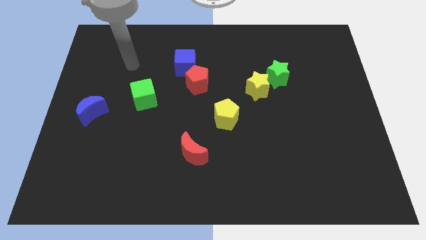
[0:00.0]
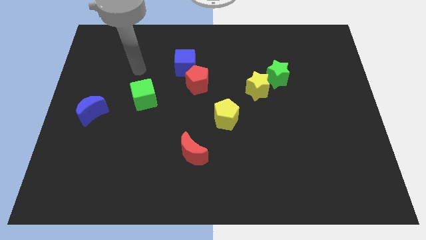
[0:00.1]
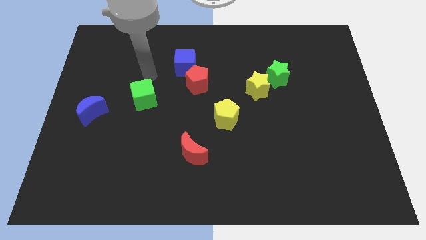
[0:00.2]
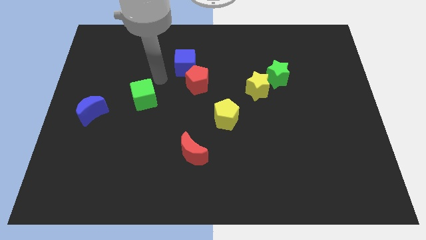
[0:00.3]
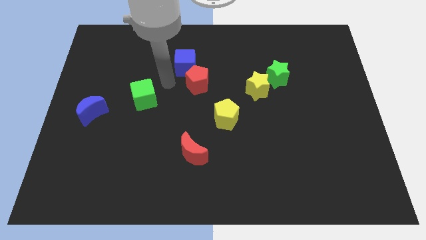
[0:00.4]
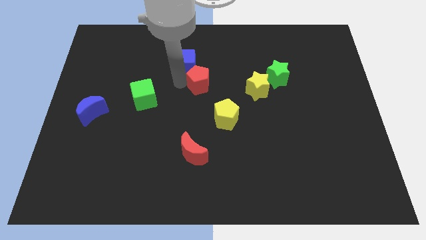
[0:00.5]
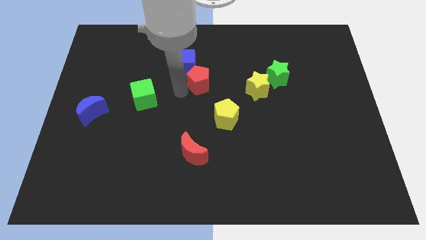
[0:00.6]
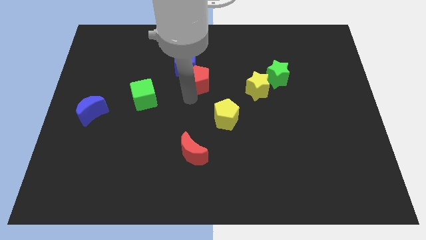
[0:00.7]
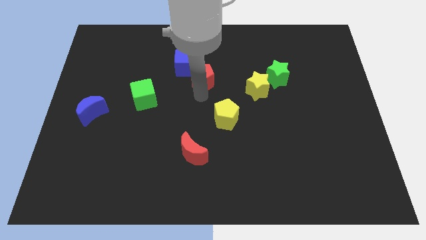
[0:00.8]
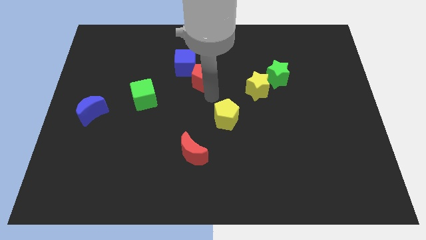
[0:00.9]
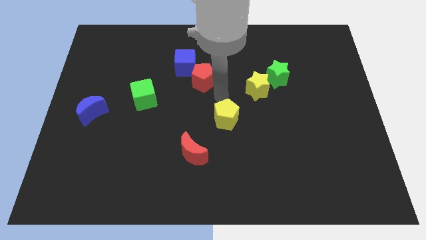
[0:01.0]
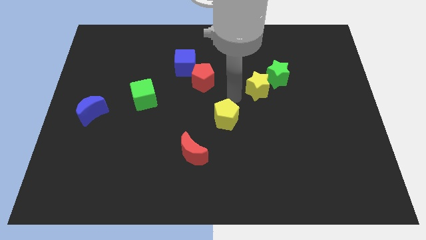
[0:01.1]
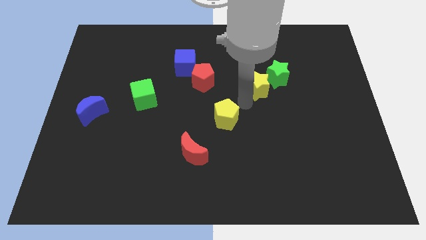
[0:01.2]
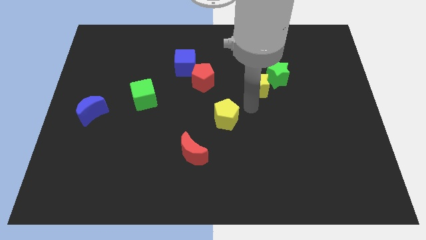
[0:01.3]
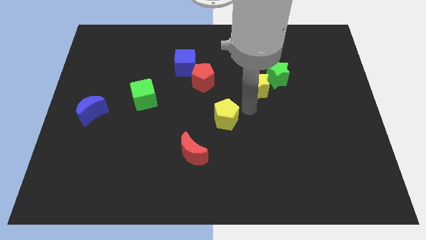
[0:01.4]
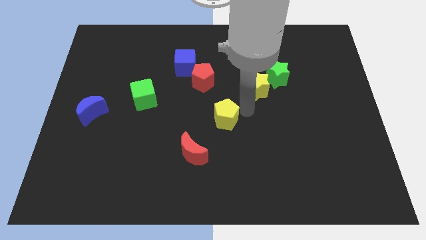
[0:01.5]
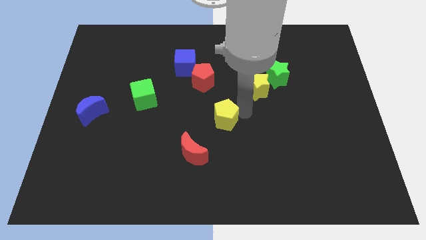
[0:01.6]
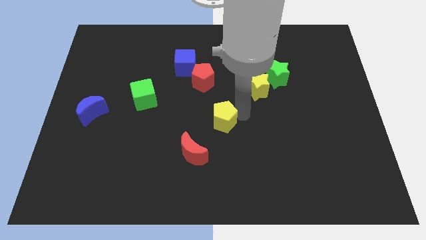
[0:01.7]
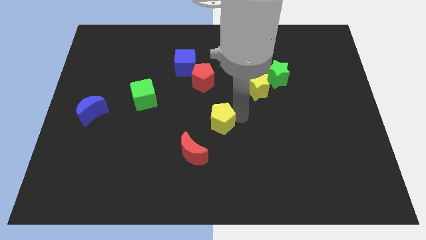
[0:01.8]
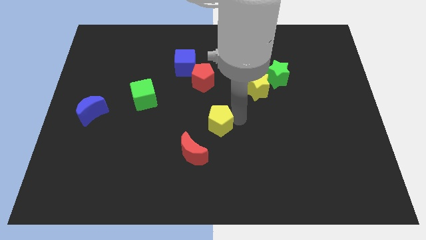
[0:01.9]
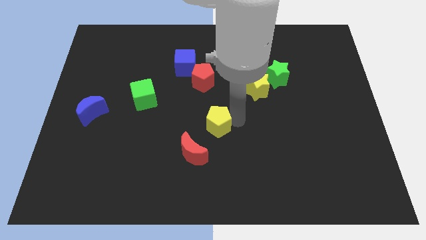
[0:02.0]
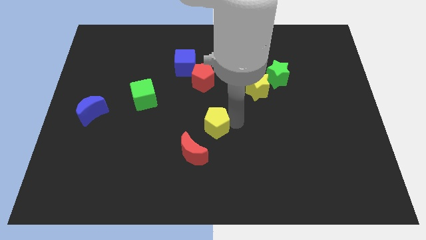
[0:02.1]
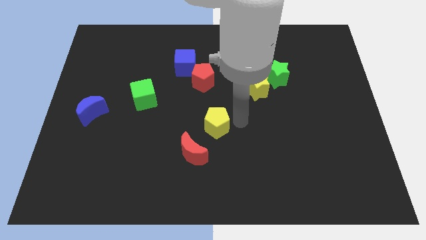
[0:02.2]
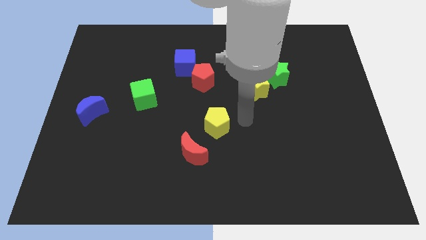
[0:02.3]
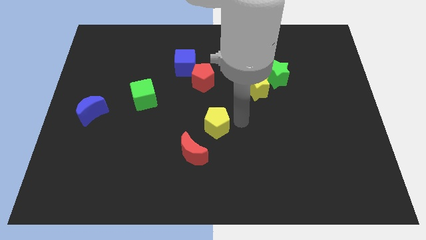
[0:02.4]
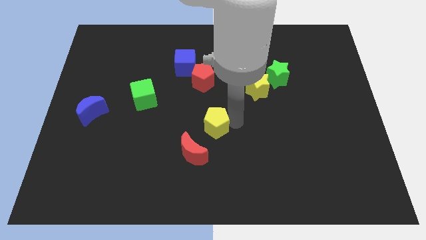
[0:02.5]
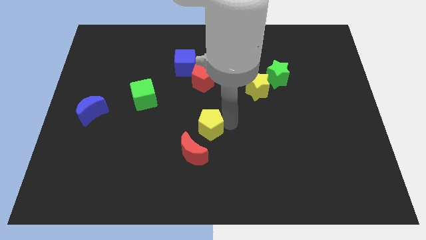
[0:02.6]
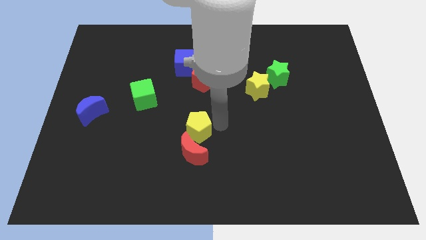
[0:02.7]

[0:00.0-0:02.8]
slightly move the yellow pentagon downwards and then left

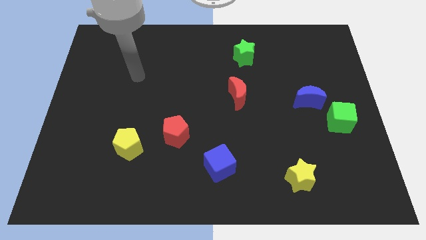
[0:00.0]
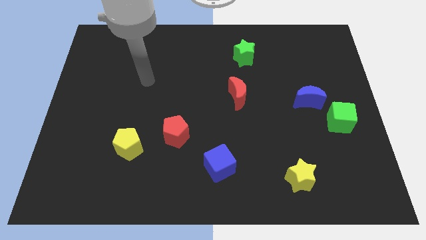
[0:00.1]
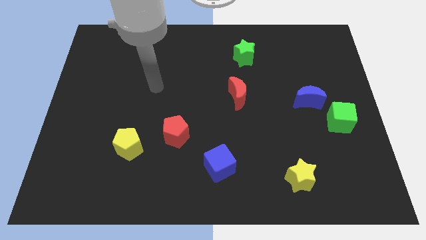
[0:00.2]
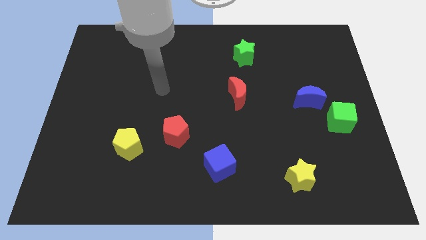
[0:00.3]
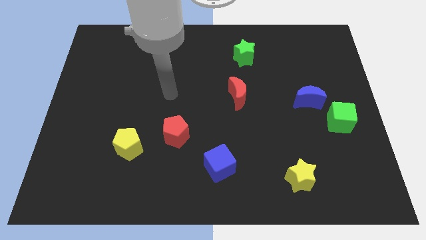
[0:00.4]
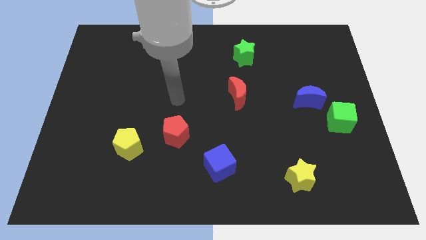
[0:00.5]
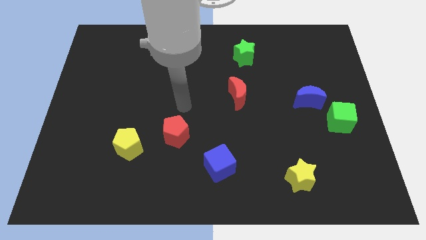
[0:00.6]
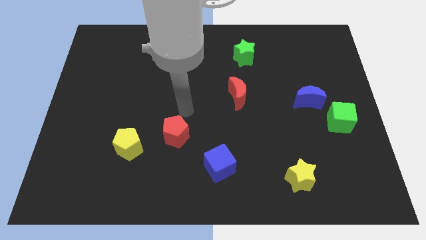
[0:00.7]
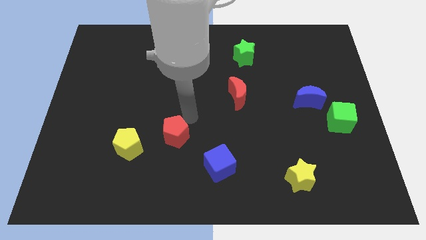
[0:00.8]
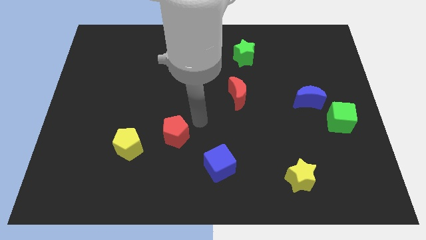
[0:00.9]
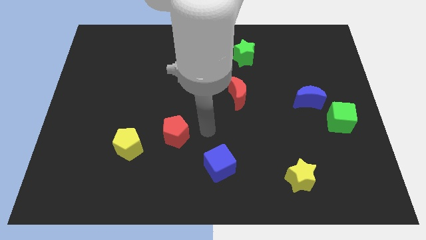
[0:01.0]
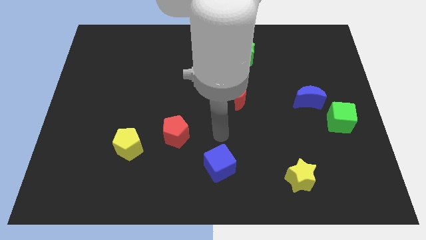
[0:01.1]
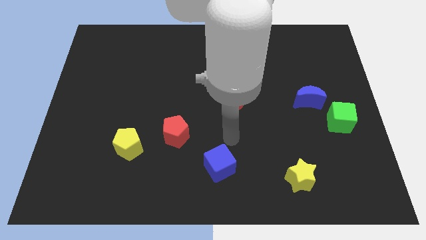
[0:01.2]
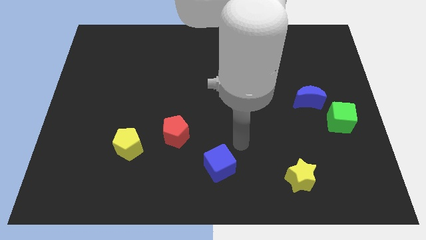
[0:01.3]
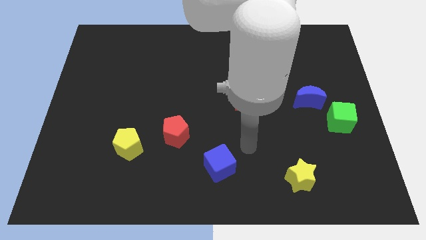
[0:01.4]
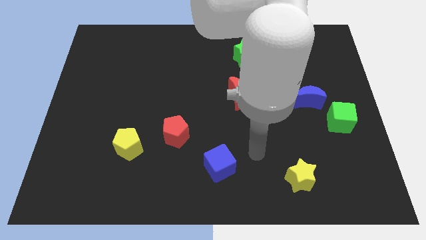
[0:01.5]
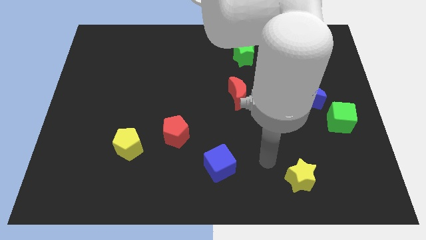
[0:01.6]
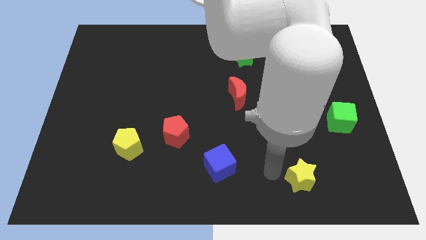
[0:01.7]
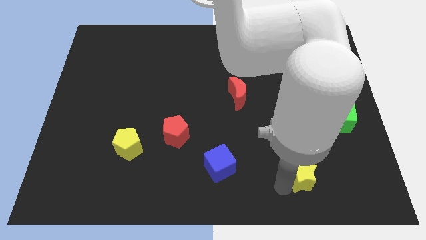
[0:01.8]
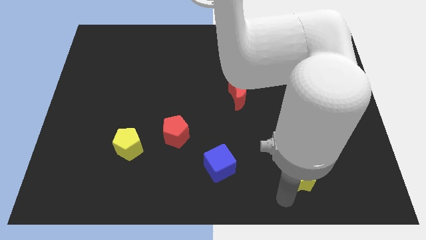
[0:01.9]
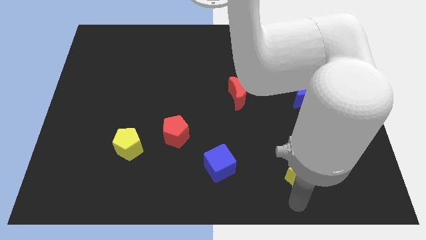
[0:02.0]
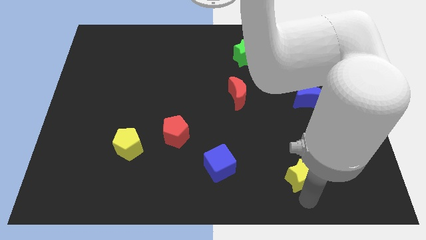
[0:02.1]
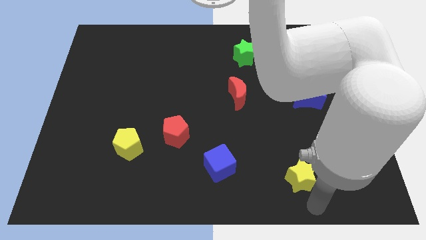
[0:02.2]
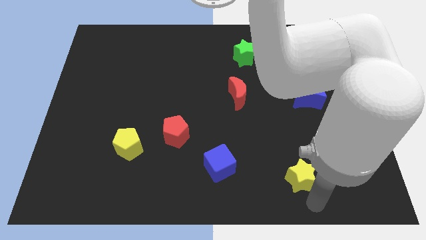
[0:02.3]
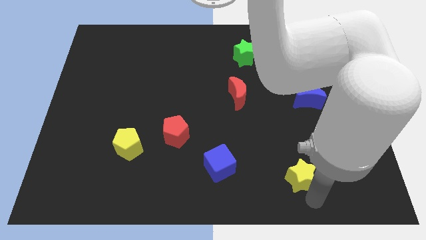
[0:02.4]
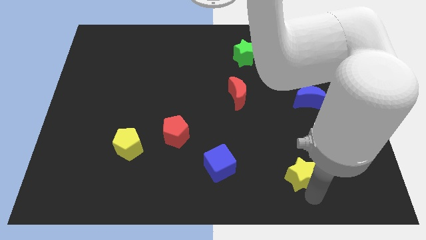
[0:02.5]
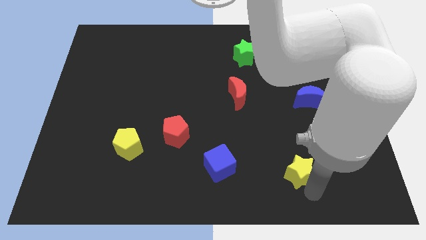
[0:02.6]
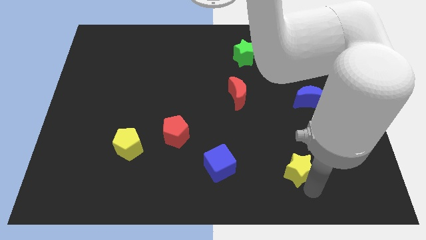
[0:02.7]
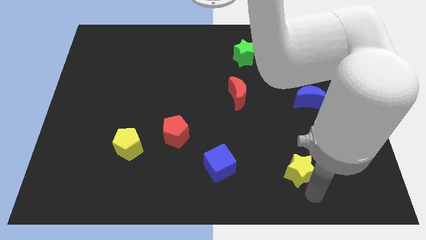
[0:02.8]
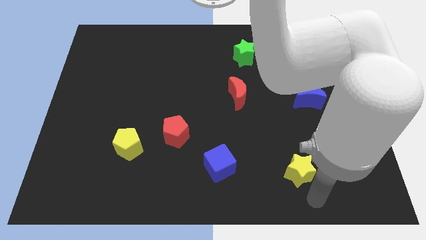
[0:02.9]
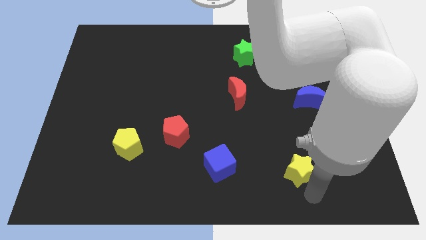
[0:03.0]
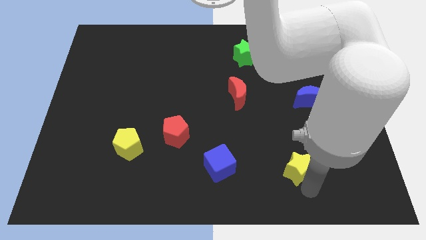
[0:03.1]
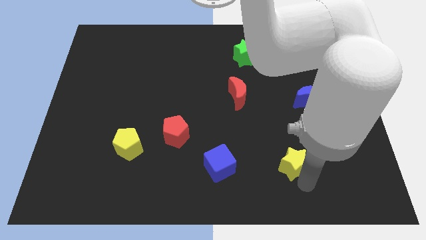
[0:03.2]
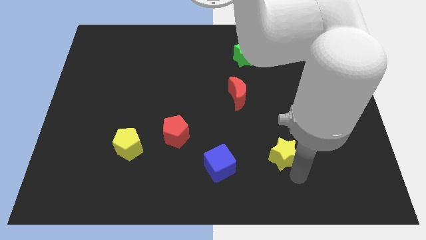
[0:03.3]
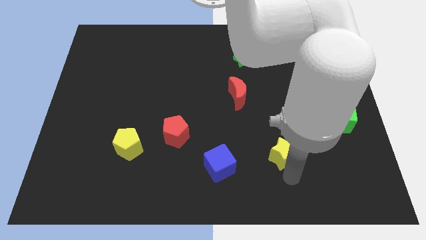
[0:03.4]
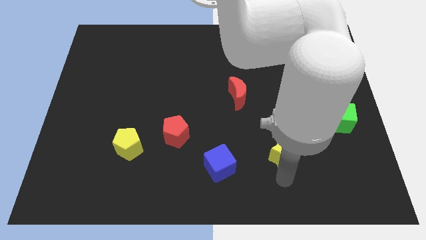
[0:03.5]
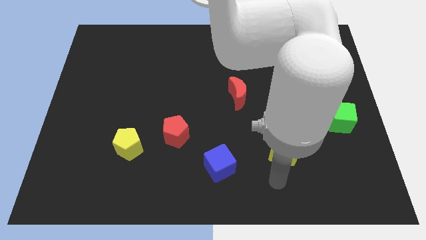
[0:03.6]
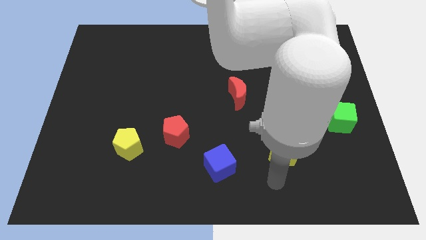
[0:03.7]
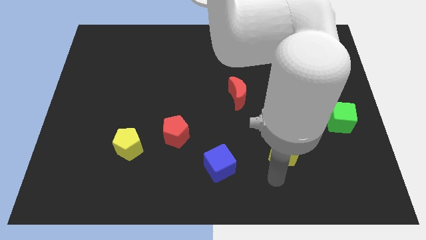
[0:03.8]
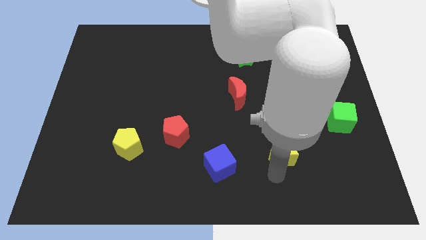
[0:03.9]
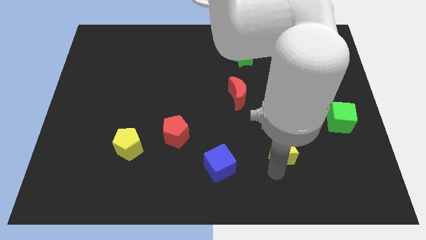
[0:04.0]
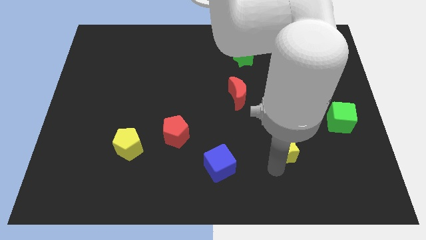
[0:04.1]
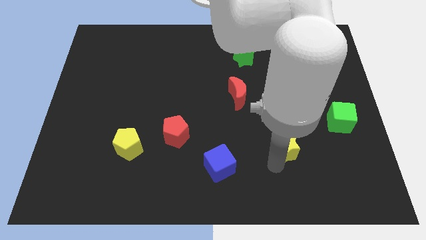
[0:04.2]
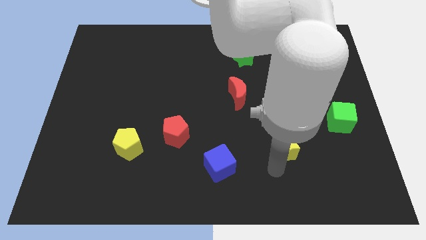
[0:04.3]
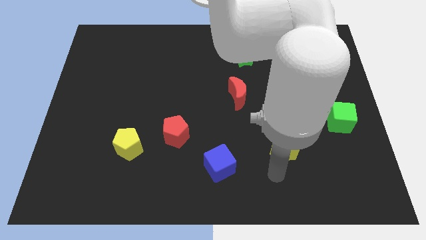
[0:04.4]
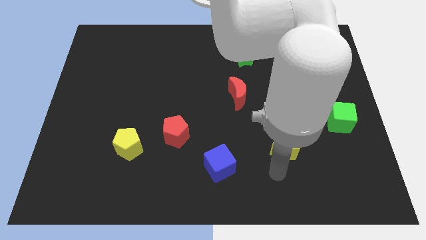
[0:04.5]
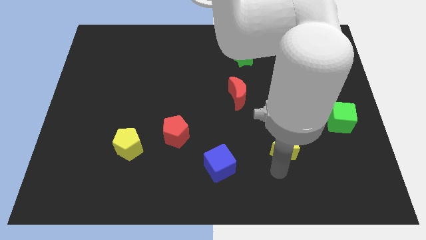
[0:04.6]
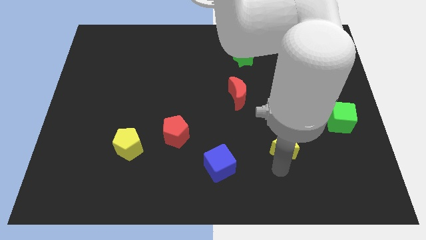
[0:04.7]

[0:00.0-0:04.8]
push the yellow star slightly up

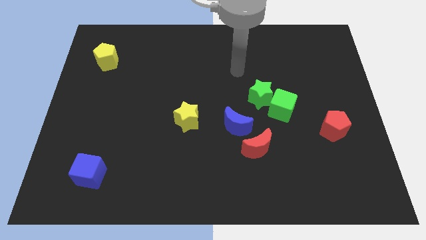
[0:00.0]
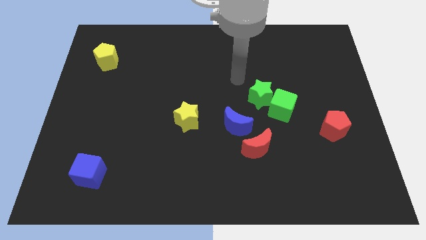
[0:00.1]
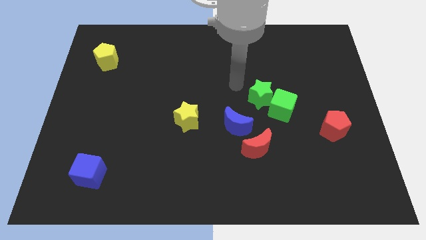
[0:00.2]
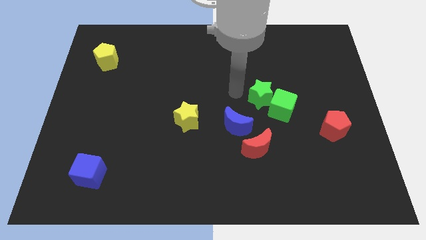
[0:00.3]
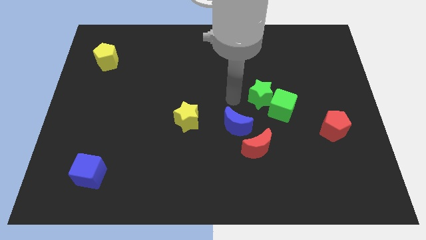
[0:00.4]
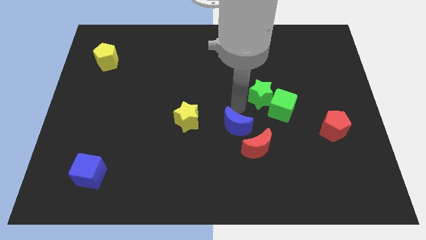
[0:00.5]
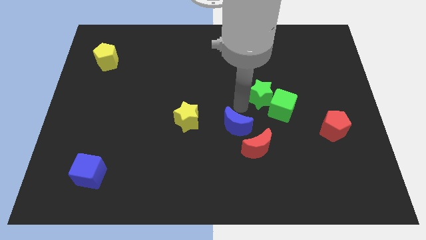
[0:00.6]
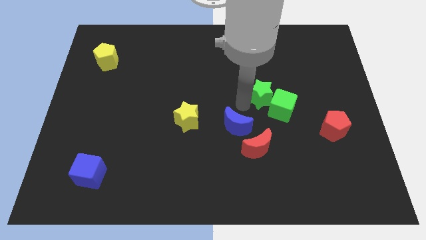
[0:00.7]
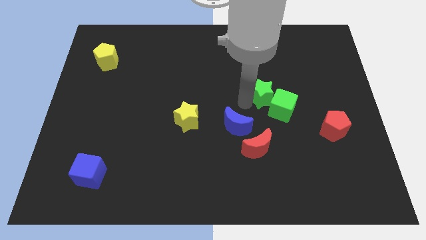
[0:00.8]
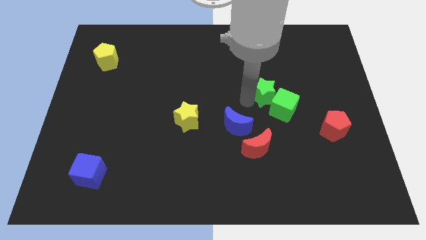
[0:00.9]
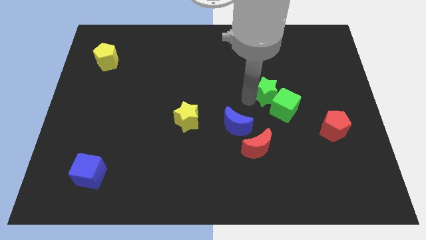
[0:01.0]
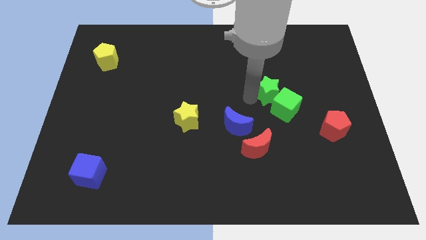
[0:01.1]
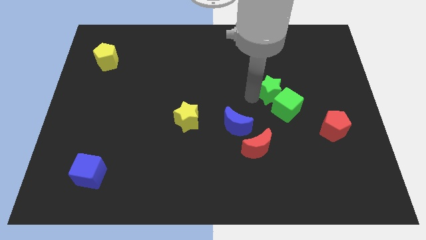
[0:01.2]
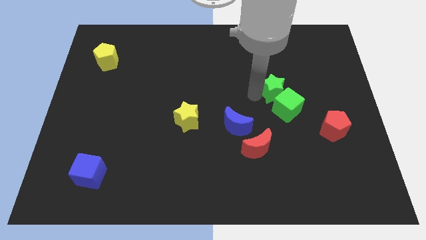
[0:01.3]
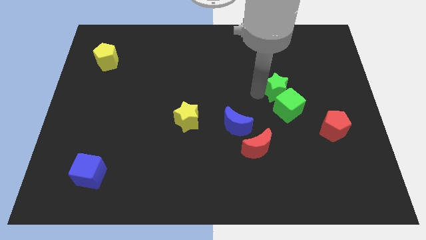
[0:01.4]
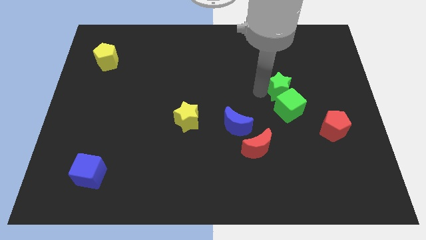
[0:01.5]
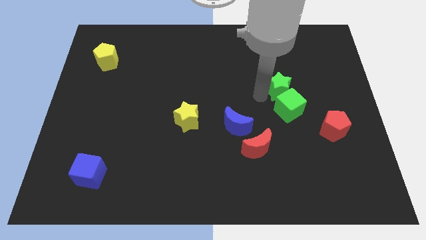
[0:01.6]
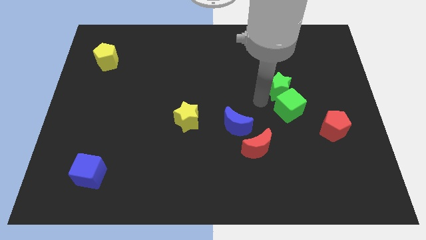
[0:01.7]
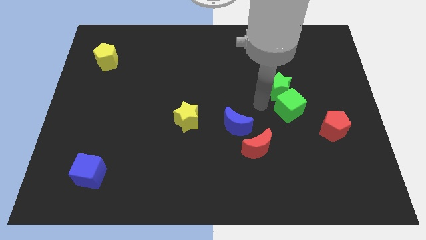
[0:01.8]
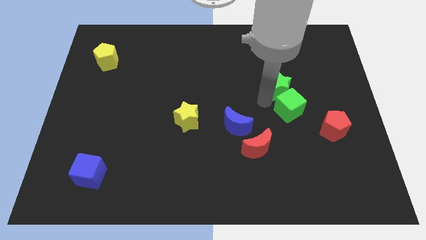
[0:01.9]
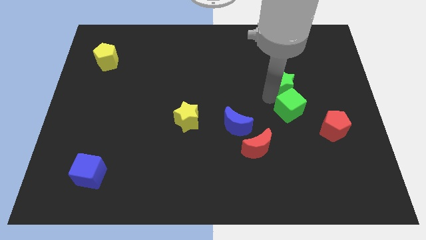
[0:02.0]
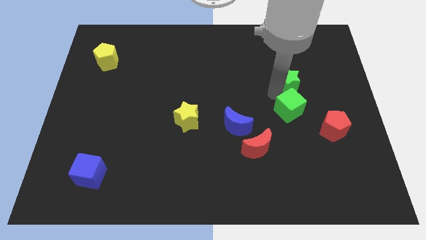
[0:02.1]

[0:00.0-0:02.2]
slide the green star upwards and then right a bit
